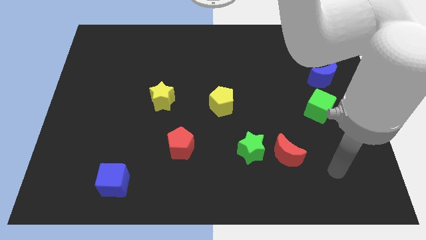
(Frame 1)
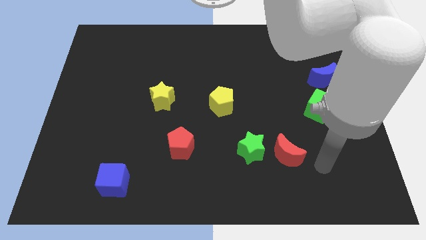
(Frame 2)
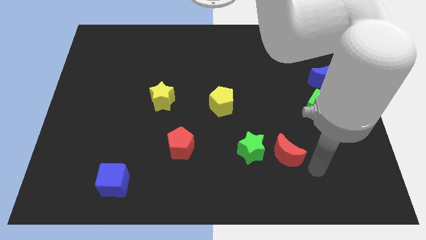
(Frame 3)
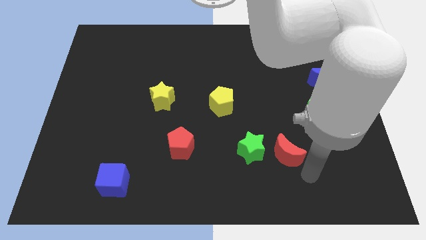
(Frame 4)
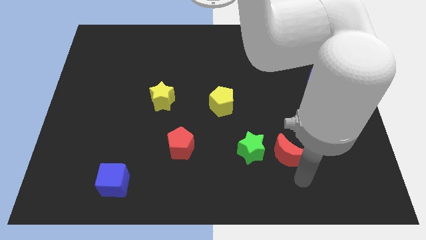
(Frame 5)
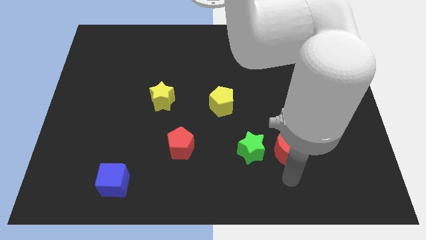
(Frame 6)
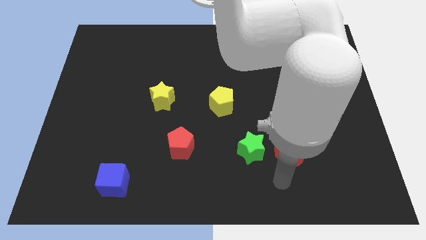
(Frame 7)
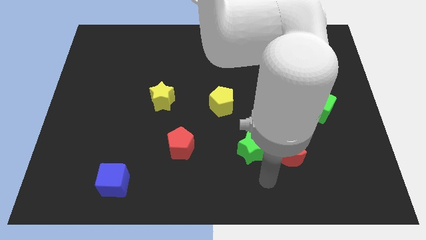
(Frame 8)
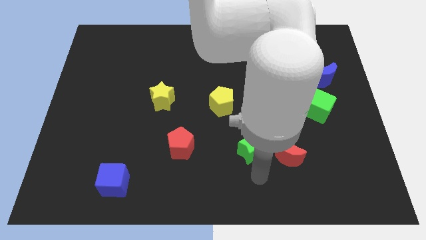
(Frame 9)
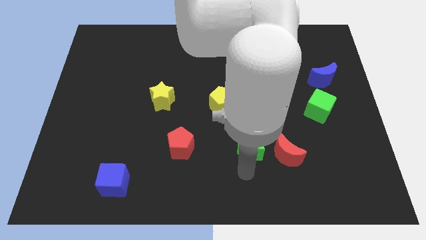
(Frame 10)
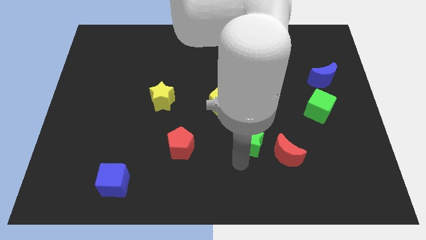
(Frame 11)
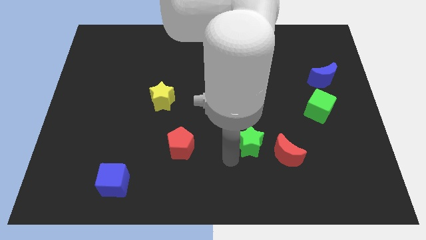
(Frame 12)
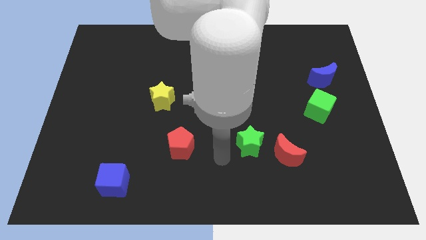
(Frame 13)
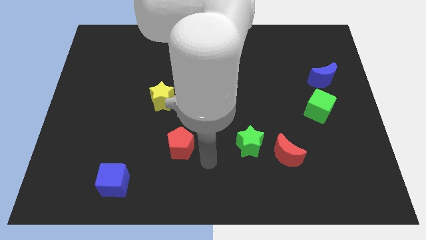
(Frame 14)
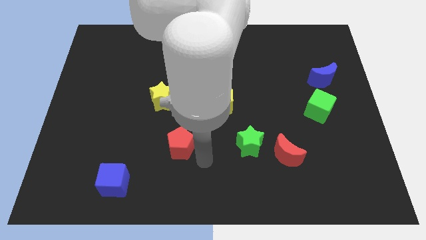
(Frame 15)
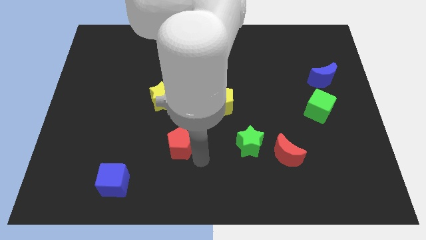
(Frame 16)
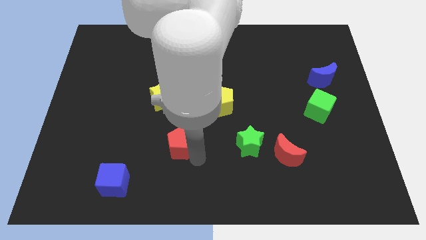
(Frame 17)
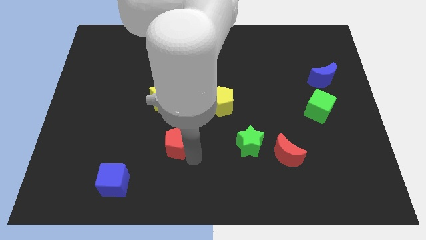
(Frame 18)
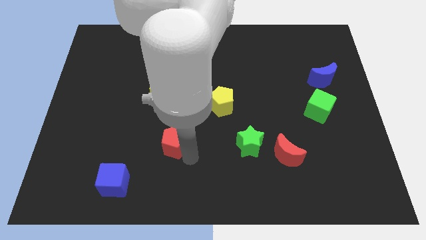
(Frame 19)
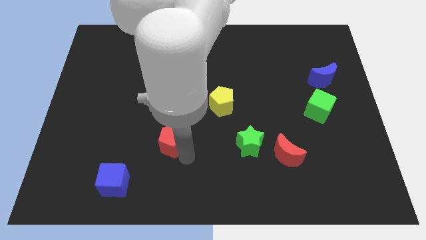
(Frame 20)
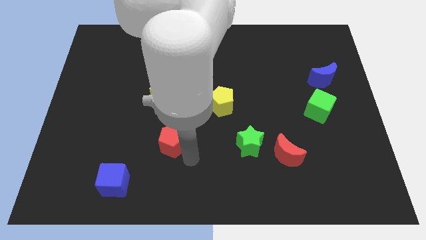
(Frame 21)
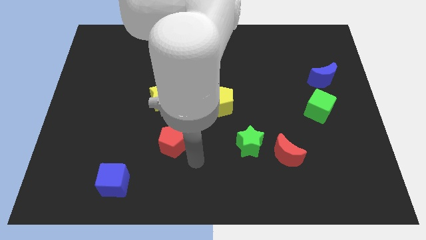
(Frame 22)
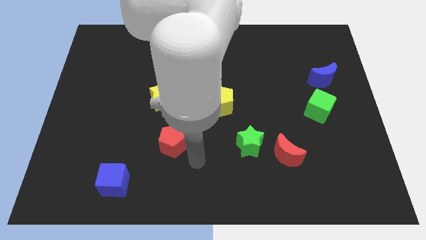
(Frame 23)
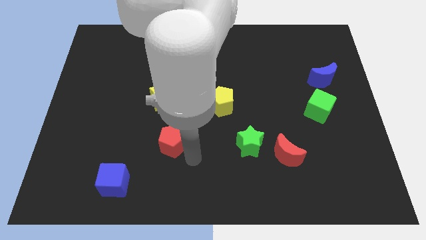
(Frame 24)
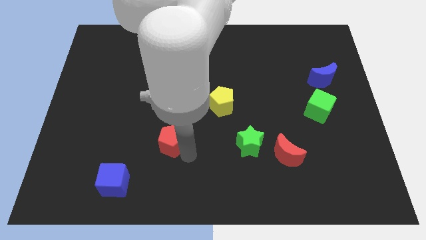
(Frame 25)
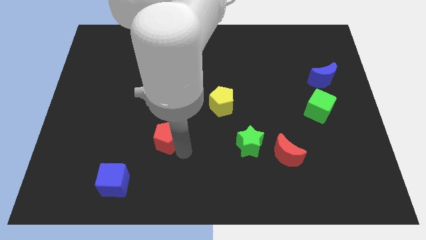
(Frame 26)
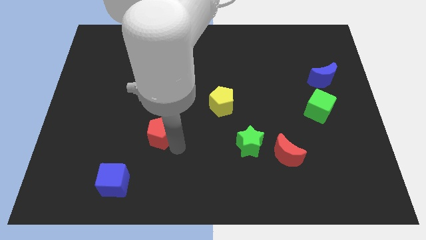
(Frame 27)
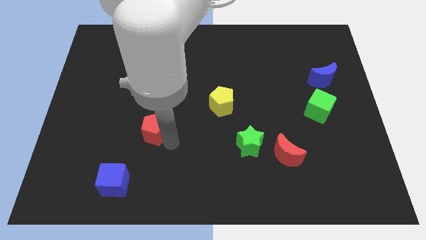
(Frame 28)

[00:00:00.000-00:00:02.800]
slightly slide the red pentagon upwards and left diagonally

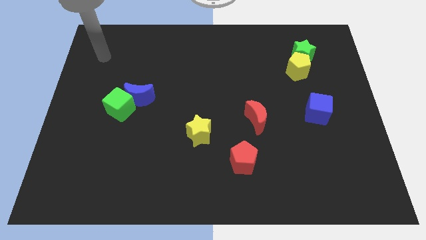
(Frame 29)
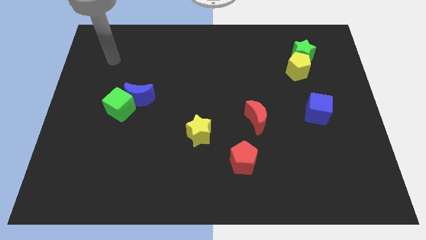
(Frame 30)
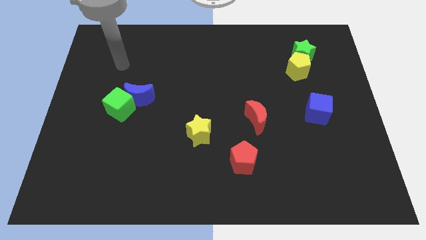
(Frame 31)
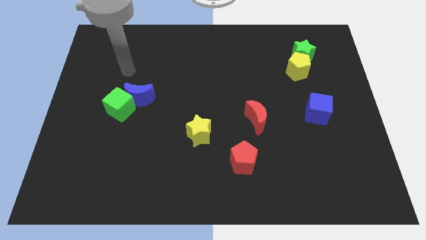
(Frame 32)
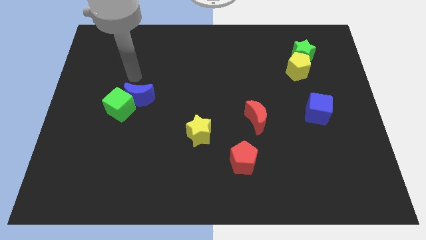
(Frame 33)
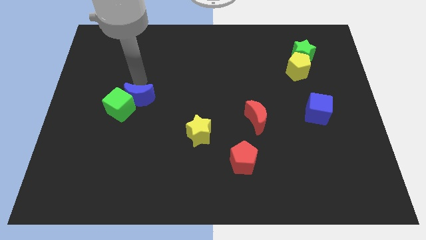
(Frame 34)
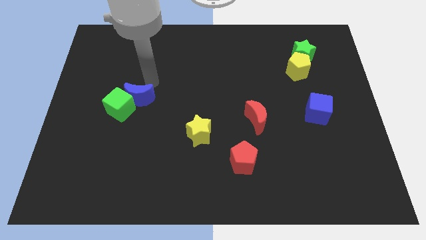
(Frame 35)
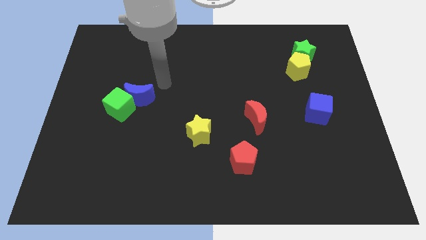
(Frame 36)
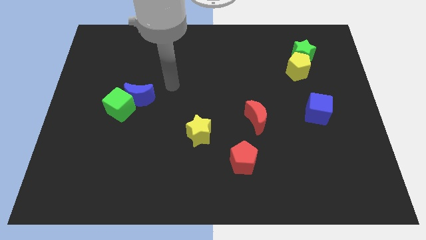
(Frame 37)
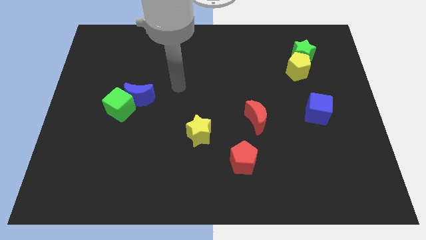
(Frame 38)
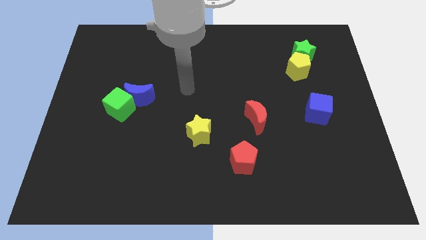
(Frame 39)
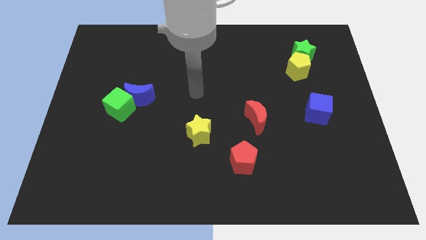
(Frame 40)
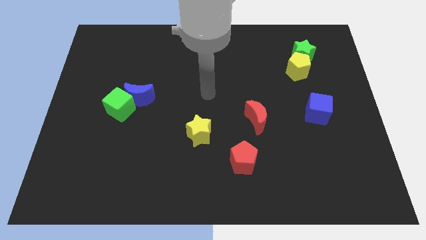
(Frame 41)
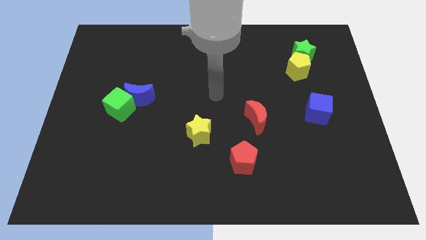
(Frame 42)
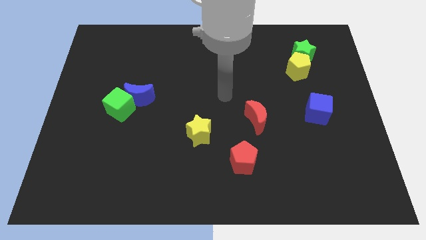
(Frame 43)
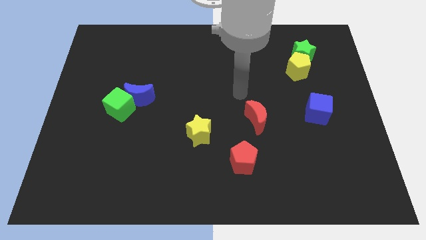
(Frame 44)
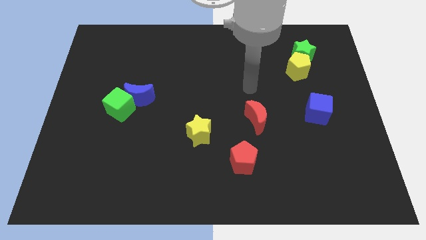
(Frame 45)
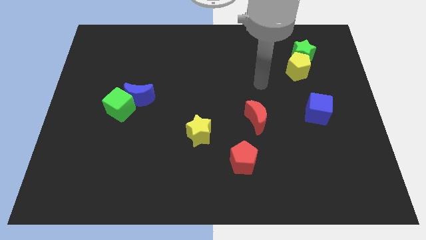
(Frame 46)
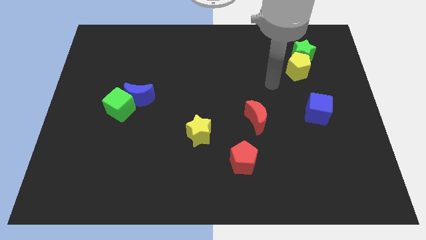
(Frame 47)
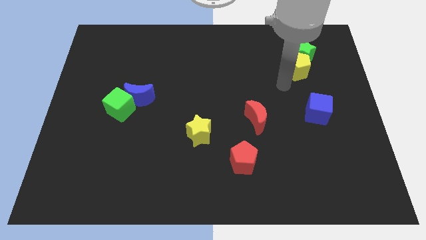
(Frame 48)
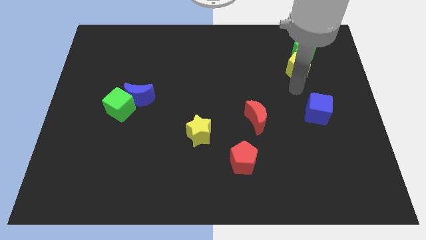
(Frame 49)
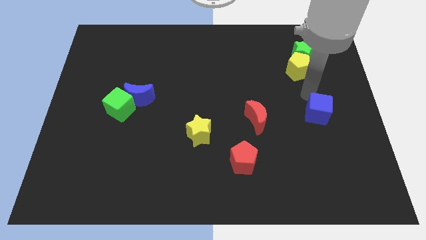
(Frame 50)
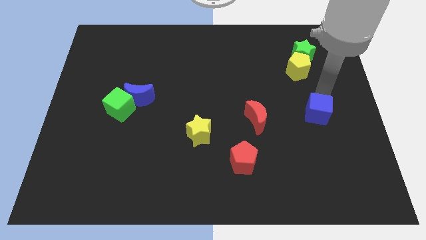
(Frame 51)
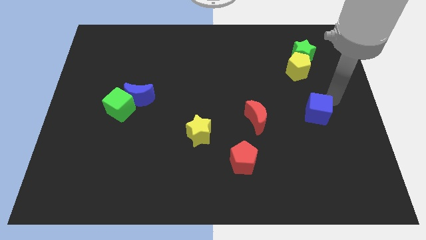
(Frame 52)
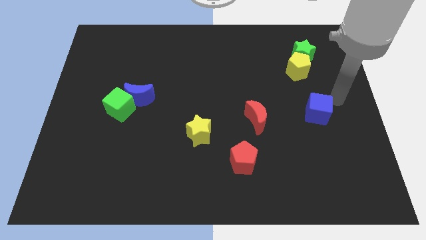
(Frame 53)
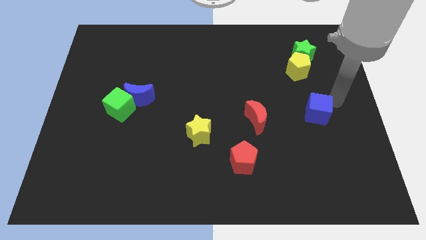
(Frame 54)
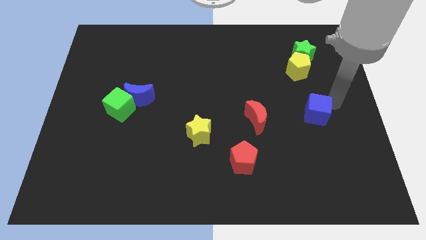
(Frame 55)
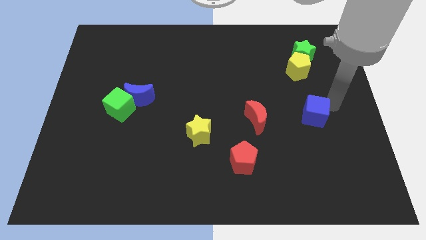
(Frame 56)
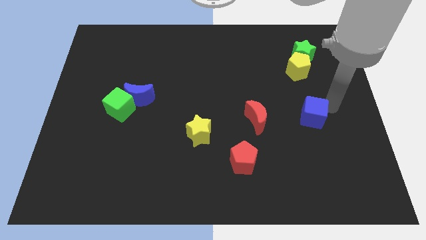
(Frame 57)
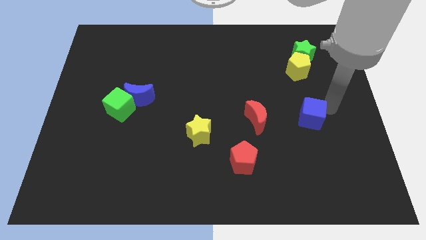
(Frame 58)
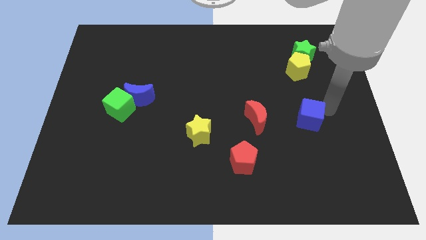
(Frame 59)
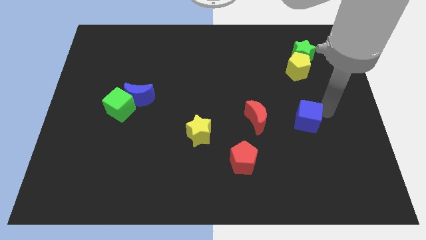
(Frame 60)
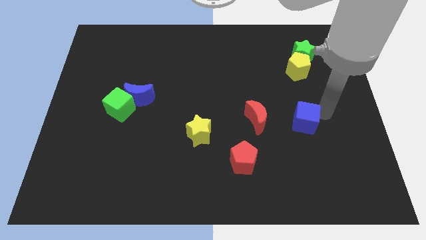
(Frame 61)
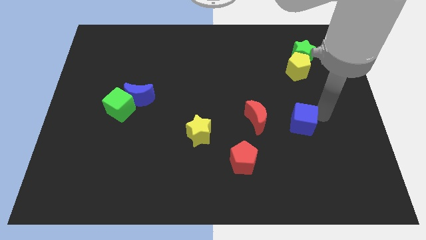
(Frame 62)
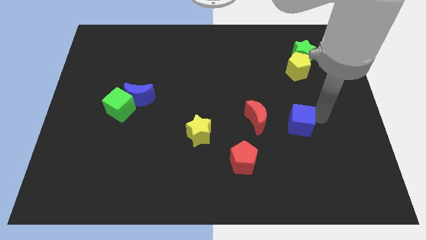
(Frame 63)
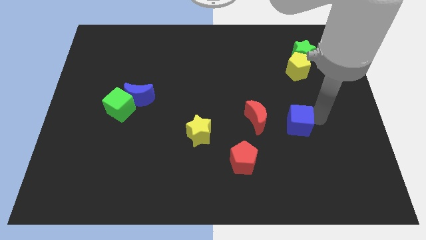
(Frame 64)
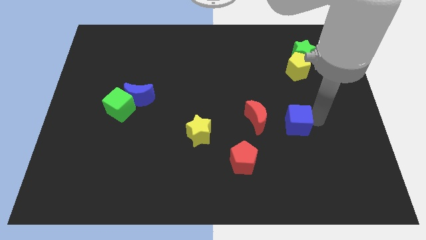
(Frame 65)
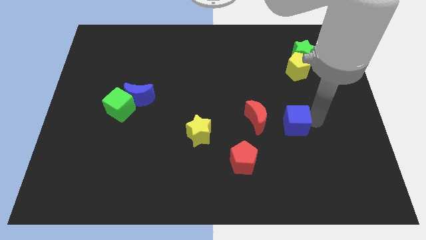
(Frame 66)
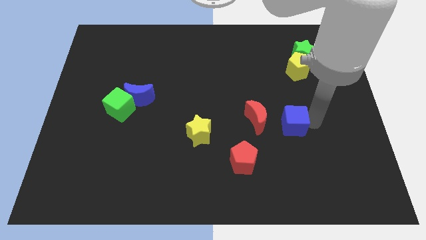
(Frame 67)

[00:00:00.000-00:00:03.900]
slightly push the blue cube diagonally downwards and left

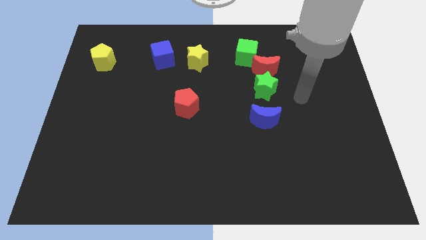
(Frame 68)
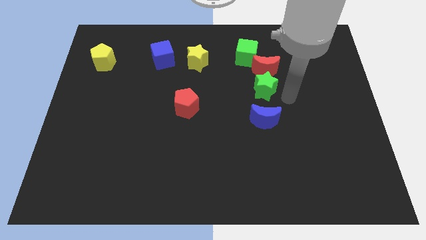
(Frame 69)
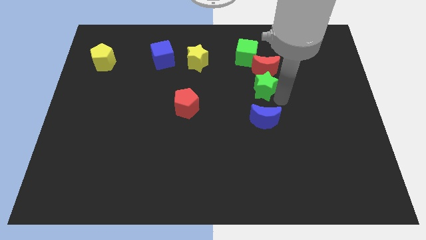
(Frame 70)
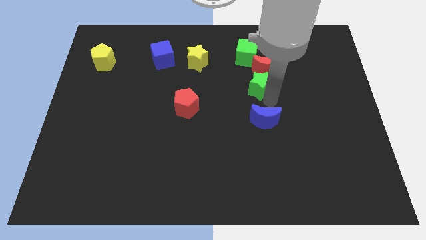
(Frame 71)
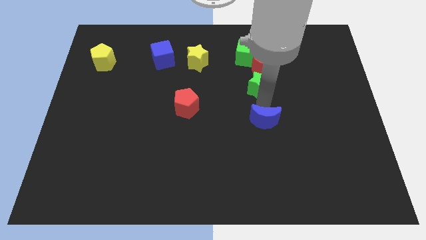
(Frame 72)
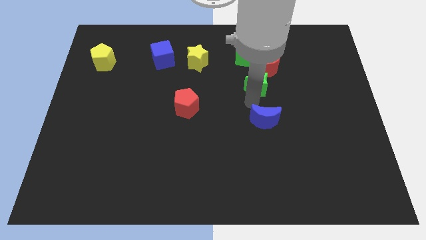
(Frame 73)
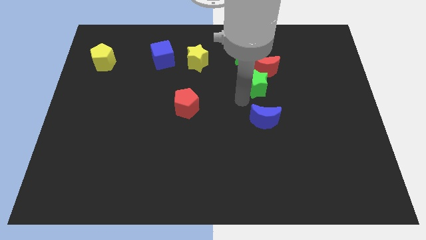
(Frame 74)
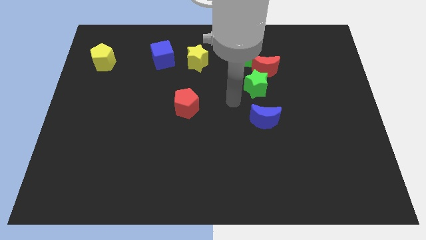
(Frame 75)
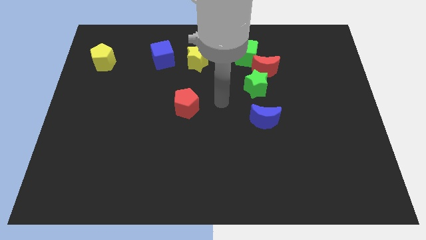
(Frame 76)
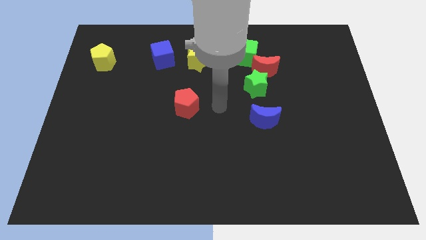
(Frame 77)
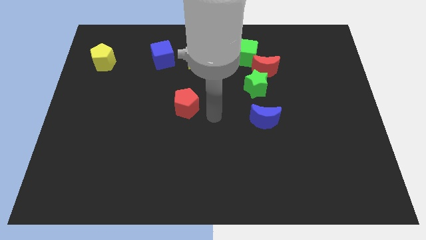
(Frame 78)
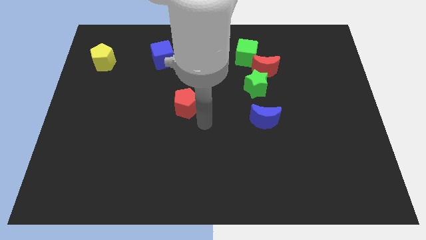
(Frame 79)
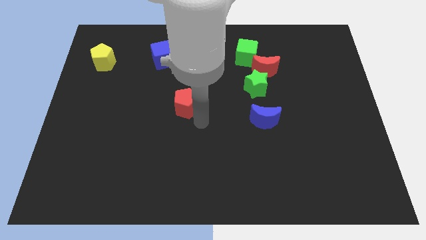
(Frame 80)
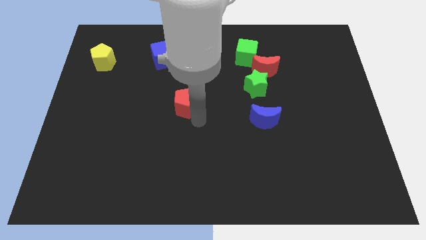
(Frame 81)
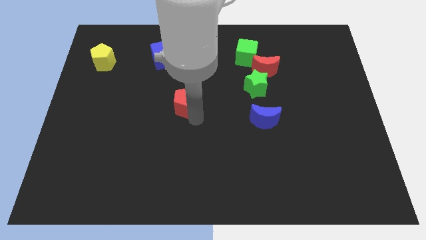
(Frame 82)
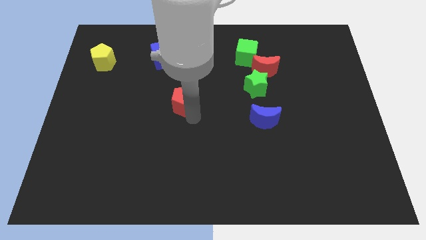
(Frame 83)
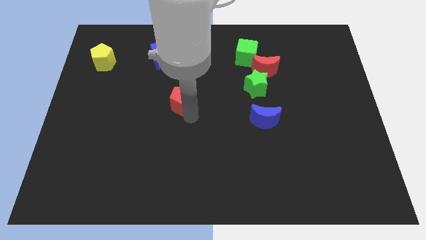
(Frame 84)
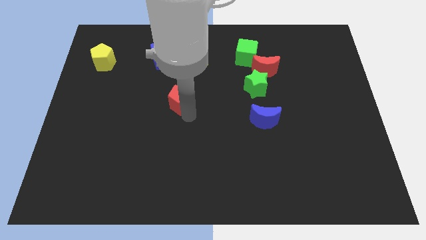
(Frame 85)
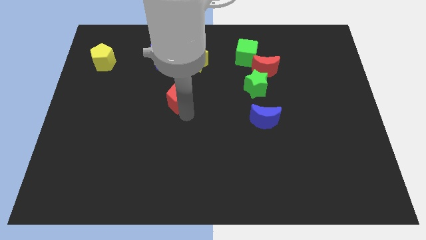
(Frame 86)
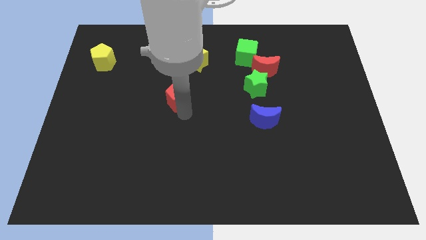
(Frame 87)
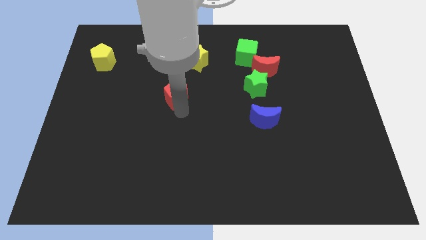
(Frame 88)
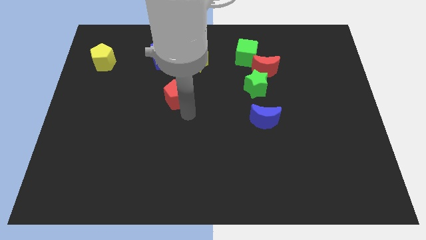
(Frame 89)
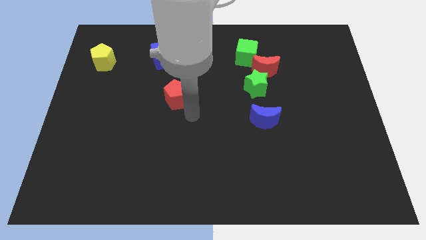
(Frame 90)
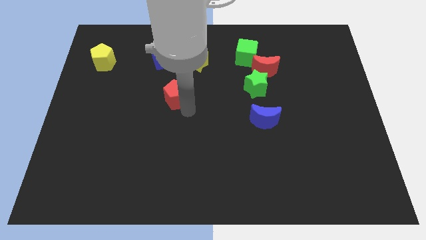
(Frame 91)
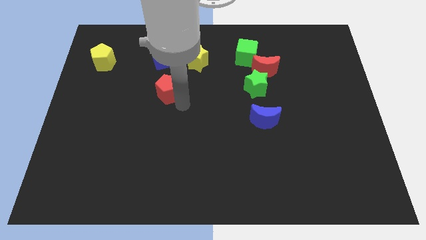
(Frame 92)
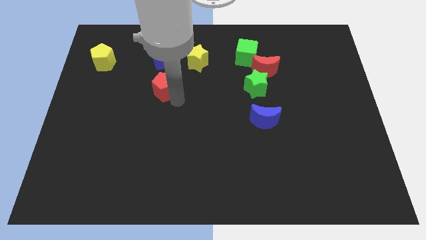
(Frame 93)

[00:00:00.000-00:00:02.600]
slightly push the red pentagon up and to the left diagonally
